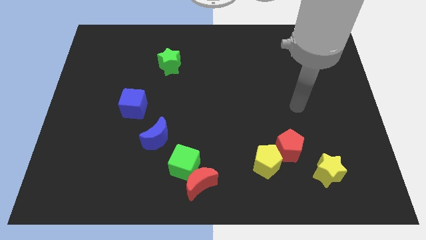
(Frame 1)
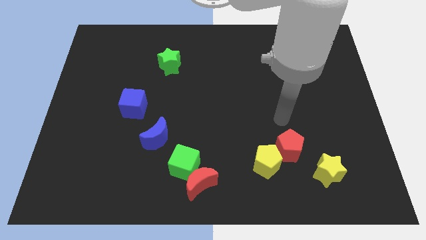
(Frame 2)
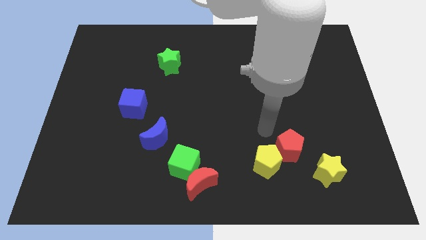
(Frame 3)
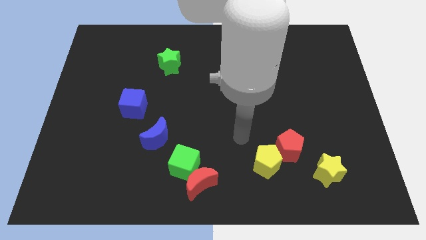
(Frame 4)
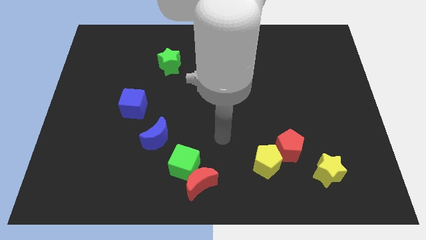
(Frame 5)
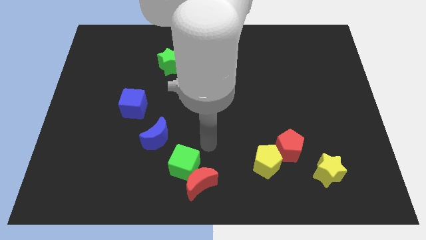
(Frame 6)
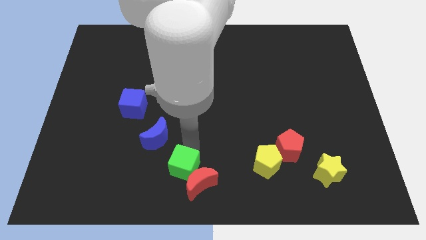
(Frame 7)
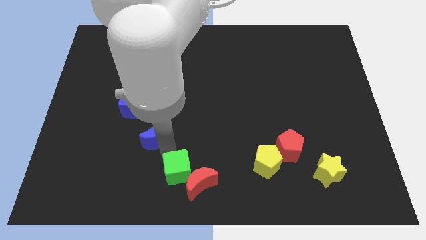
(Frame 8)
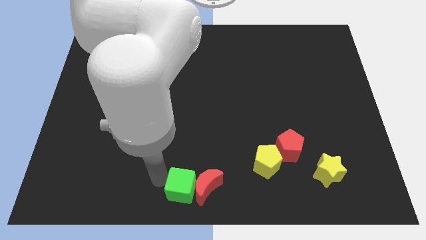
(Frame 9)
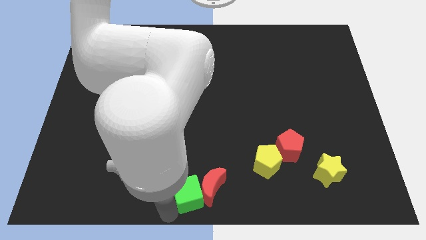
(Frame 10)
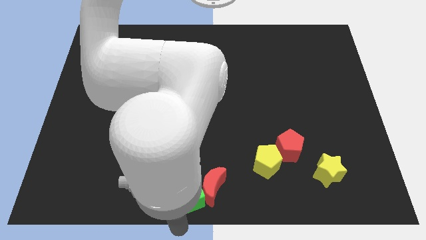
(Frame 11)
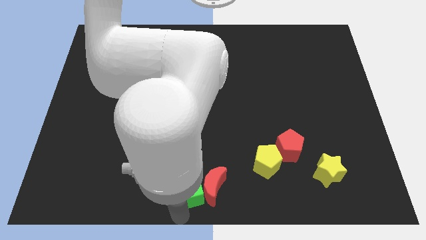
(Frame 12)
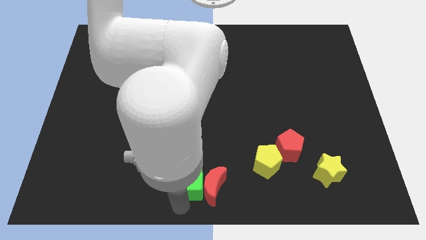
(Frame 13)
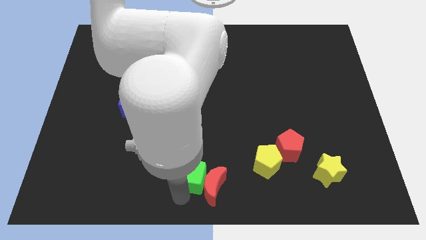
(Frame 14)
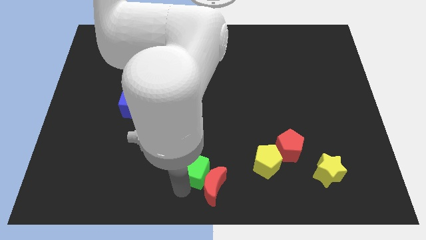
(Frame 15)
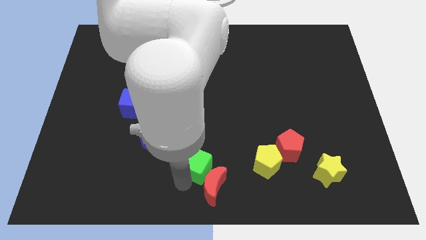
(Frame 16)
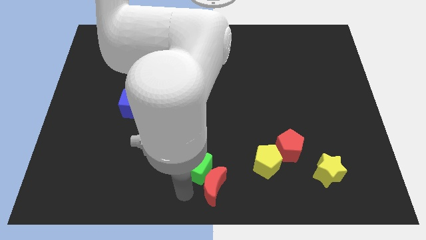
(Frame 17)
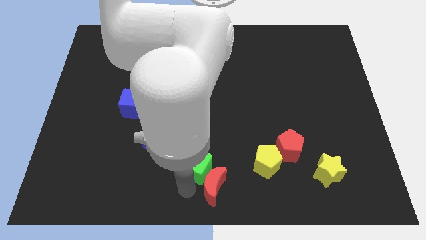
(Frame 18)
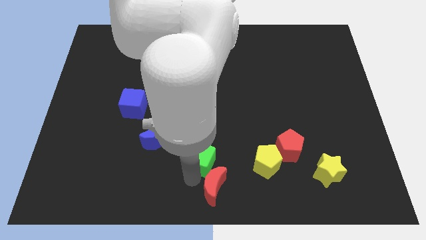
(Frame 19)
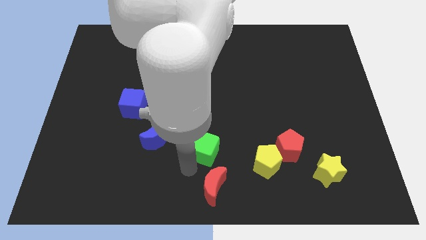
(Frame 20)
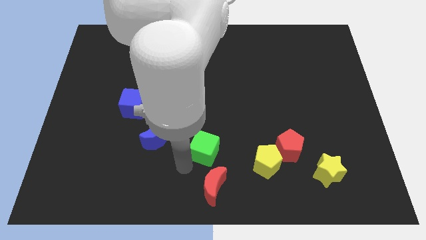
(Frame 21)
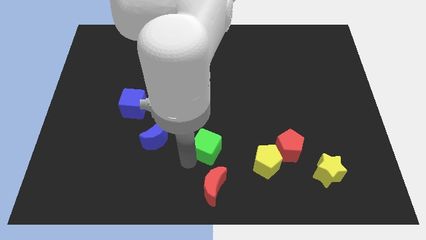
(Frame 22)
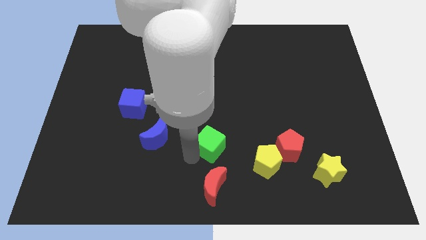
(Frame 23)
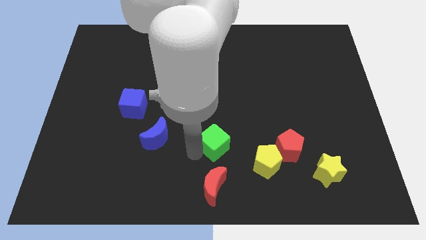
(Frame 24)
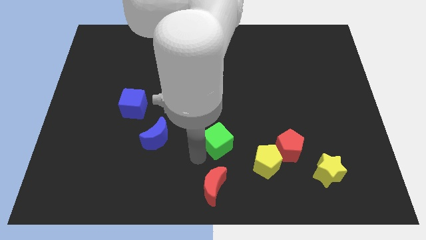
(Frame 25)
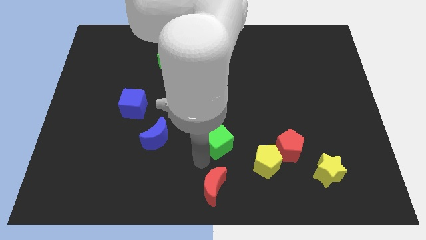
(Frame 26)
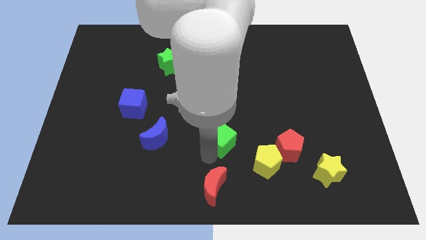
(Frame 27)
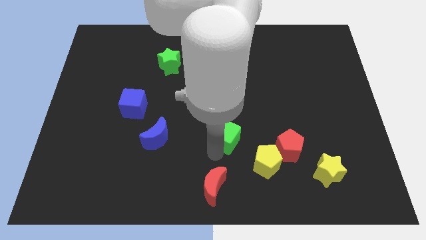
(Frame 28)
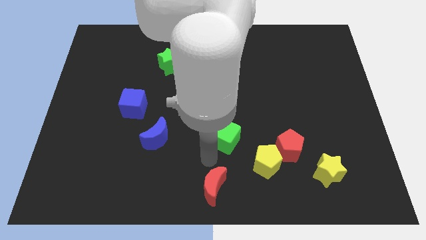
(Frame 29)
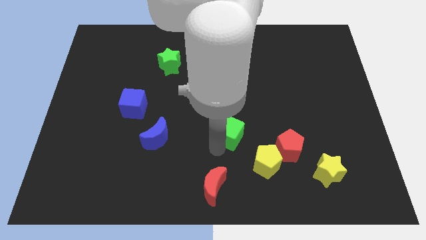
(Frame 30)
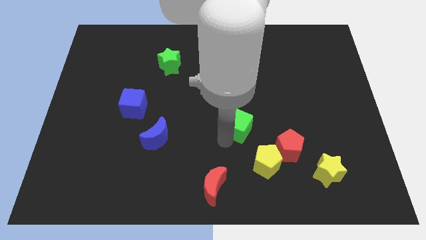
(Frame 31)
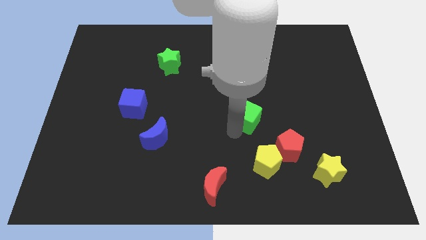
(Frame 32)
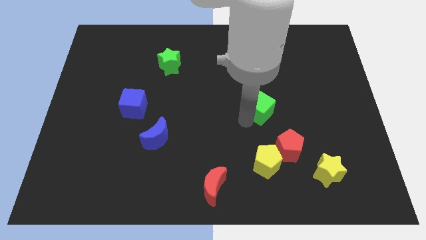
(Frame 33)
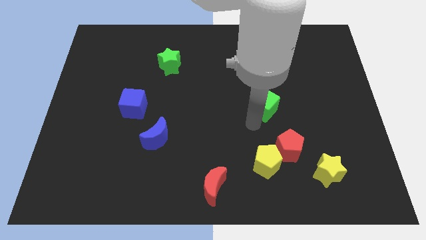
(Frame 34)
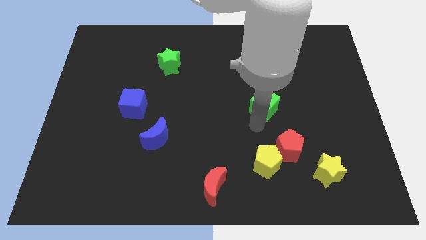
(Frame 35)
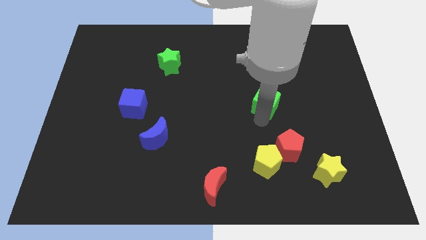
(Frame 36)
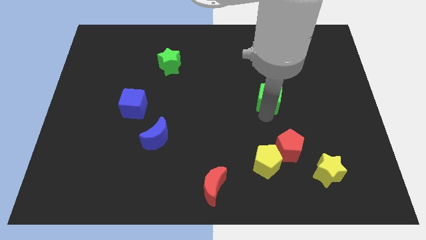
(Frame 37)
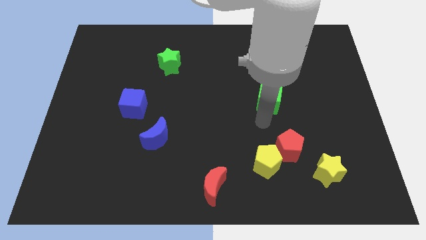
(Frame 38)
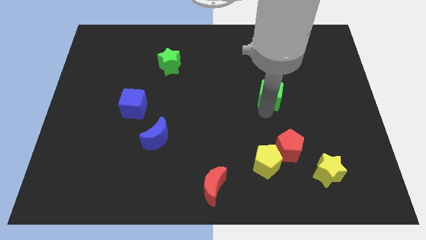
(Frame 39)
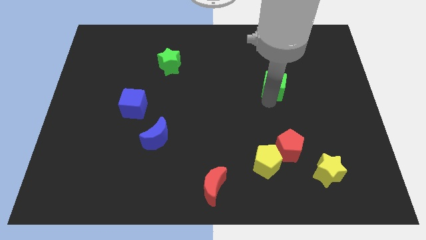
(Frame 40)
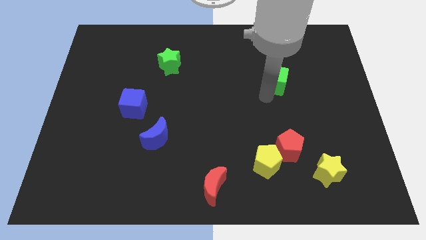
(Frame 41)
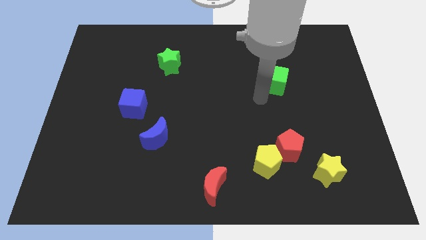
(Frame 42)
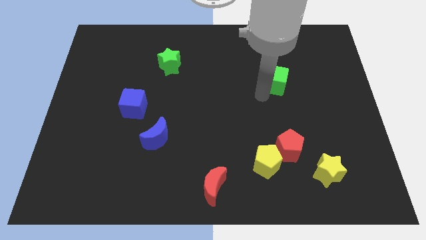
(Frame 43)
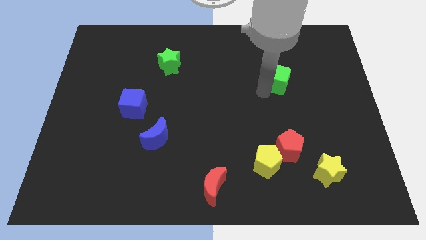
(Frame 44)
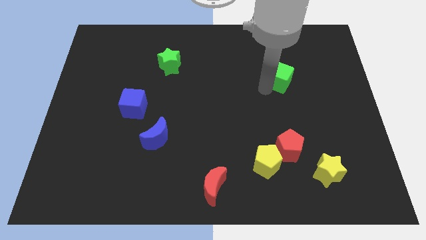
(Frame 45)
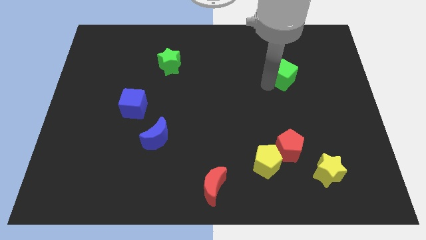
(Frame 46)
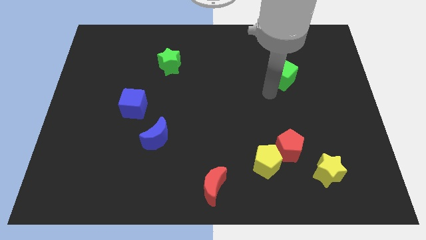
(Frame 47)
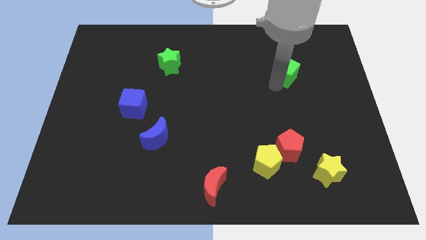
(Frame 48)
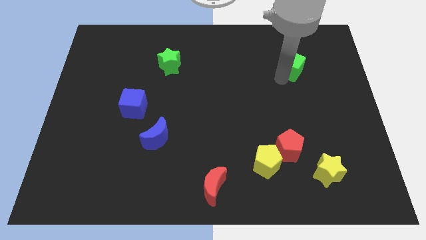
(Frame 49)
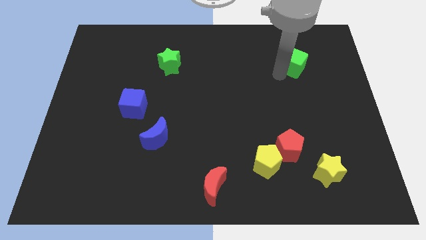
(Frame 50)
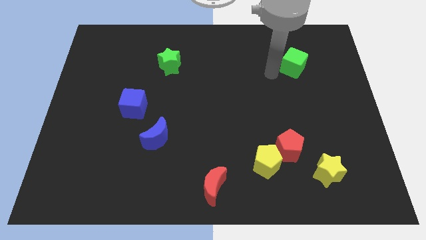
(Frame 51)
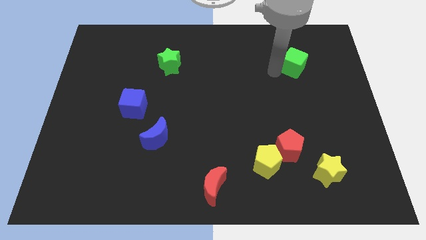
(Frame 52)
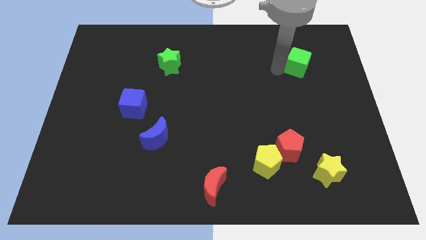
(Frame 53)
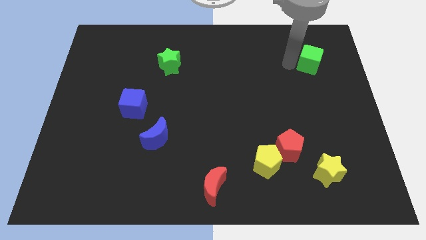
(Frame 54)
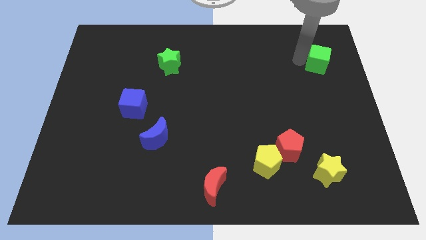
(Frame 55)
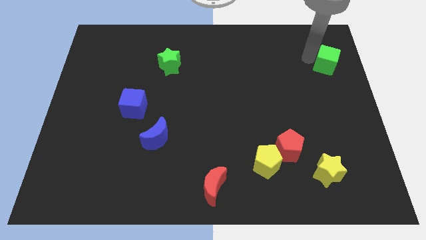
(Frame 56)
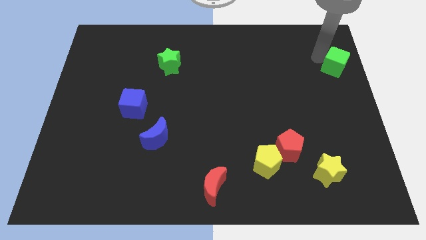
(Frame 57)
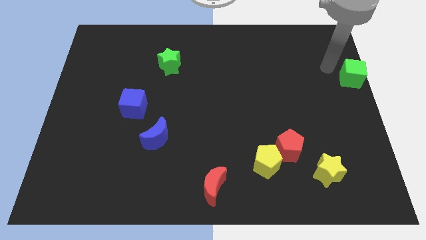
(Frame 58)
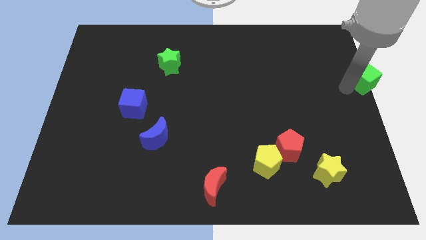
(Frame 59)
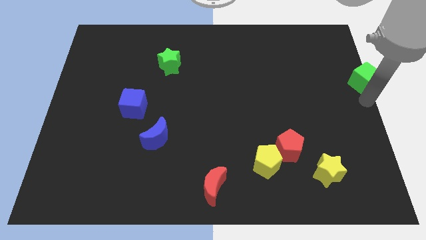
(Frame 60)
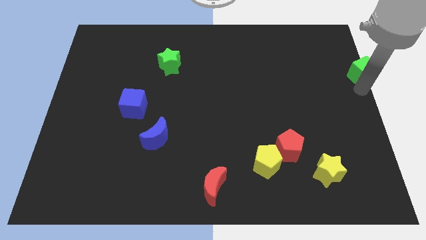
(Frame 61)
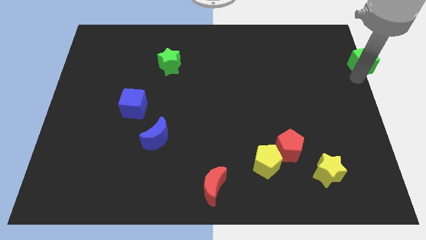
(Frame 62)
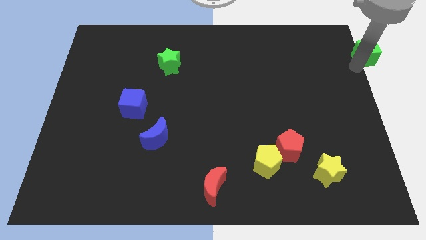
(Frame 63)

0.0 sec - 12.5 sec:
slide the green cube to the top right
